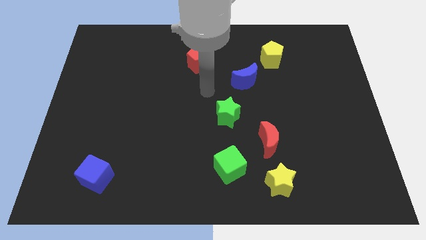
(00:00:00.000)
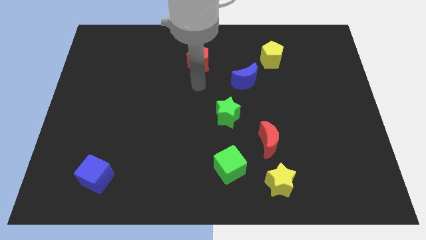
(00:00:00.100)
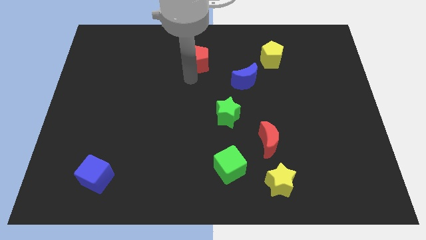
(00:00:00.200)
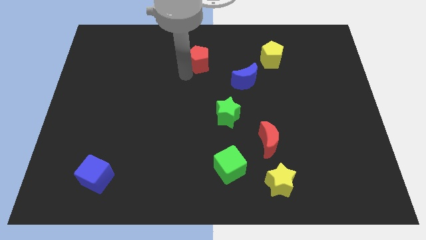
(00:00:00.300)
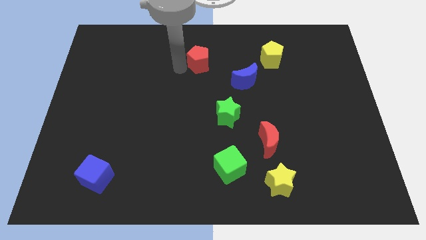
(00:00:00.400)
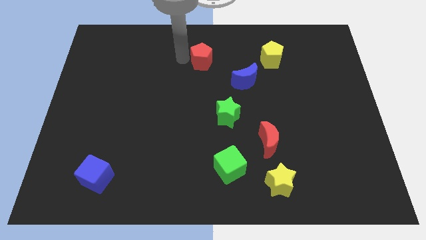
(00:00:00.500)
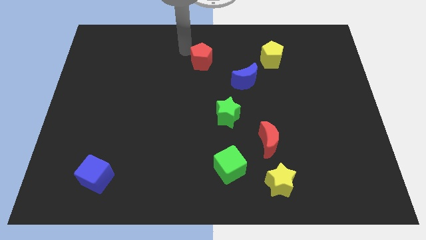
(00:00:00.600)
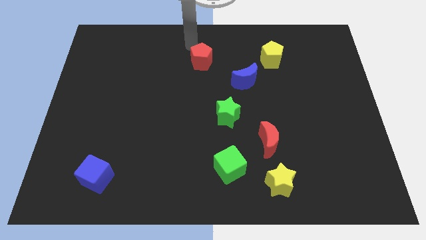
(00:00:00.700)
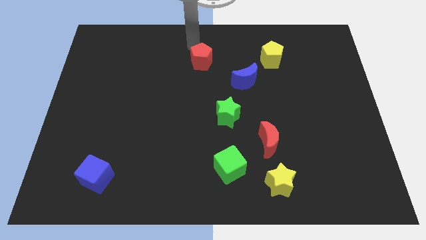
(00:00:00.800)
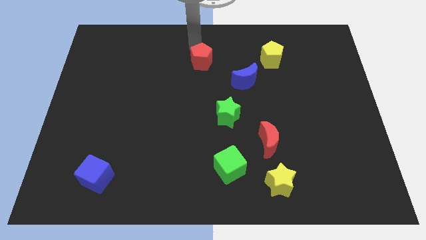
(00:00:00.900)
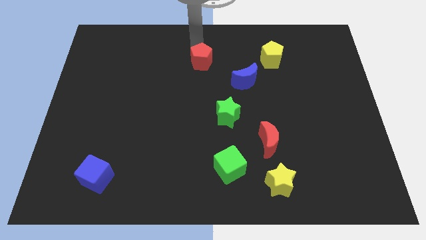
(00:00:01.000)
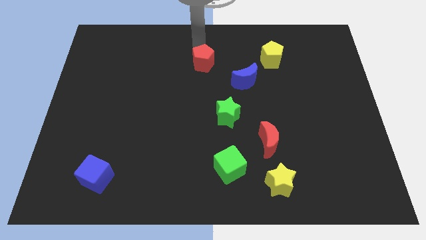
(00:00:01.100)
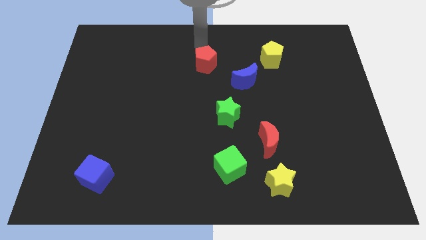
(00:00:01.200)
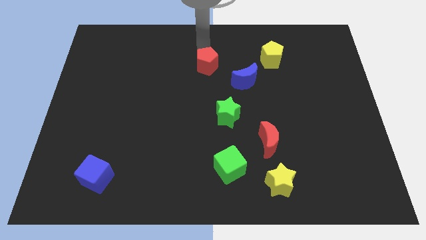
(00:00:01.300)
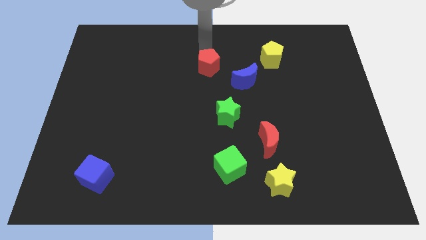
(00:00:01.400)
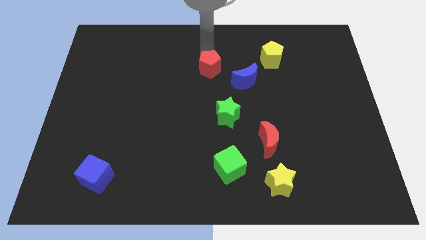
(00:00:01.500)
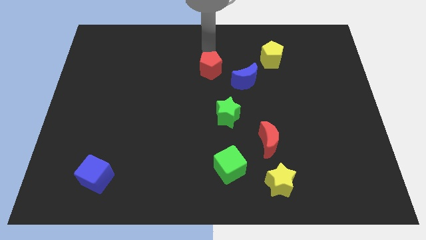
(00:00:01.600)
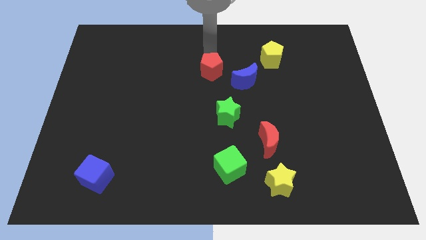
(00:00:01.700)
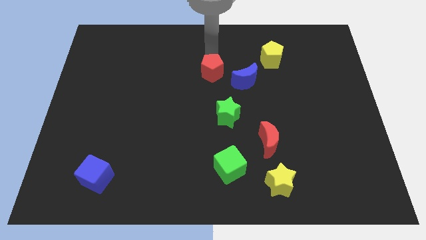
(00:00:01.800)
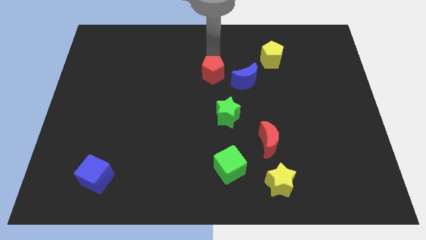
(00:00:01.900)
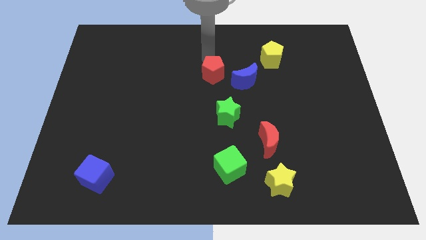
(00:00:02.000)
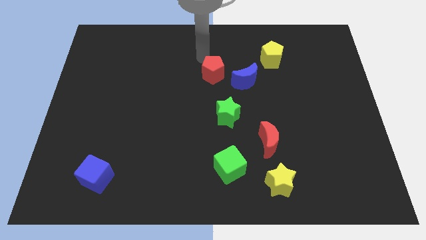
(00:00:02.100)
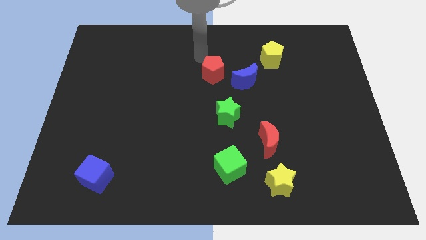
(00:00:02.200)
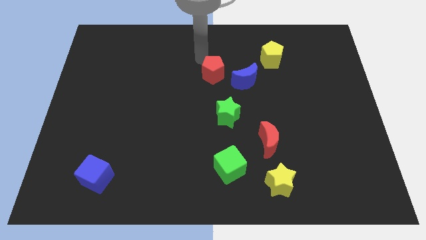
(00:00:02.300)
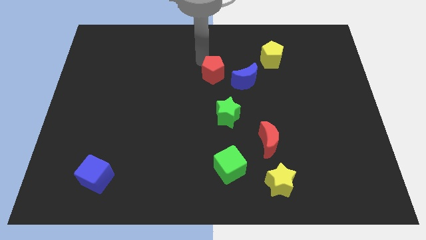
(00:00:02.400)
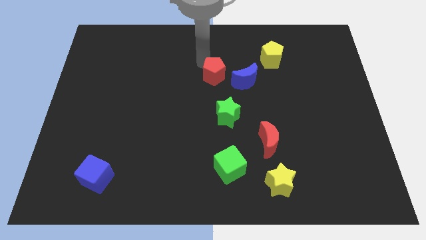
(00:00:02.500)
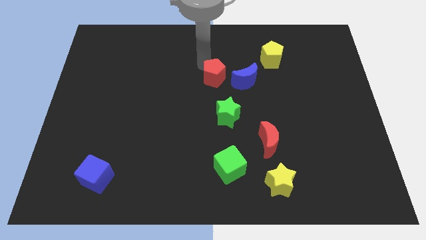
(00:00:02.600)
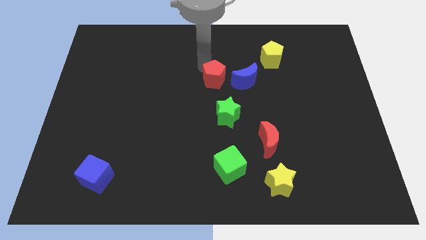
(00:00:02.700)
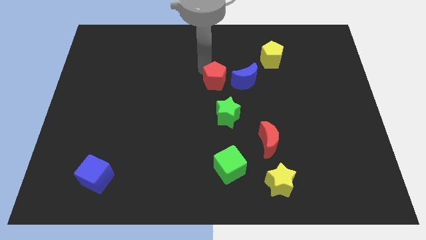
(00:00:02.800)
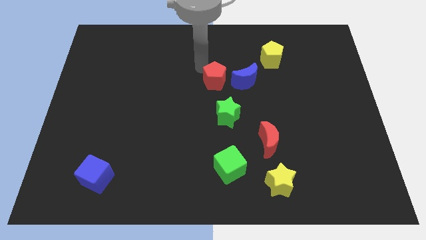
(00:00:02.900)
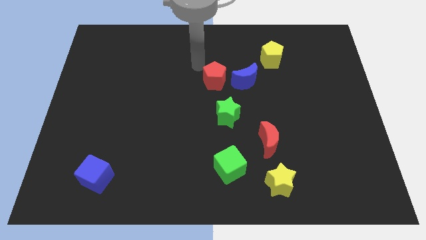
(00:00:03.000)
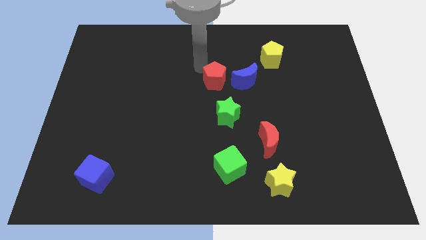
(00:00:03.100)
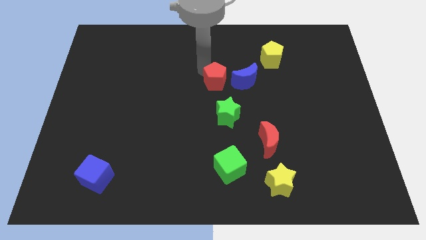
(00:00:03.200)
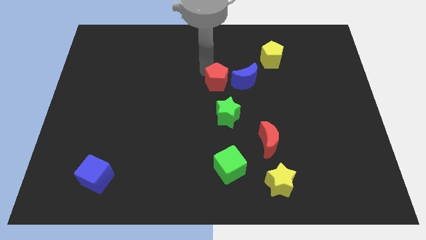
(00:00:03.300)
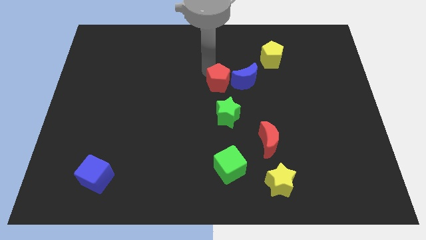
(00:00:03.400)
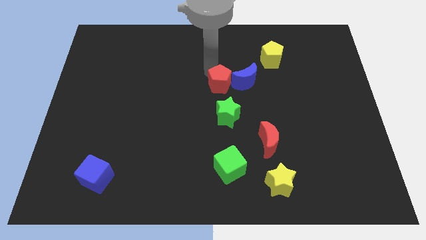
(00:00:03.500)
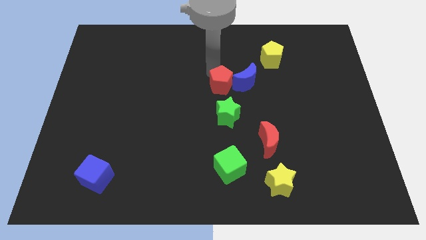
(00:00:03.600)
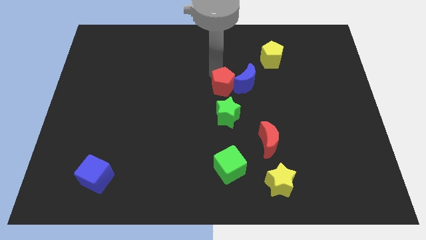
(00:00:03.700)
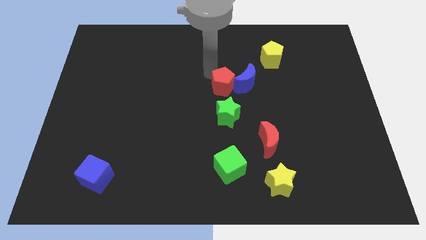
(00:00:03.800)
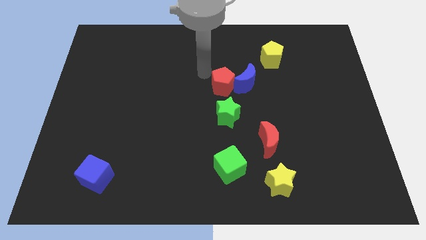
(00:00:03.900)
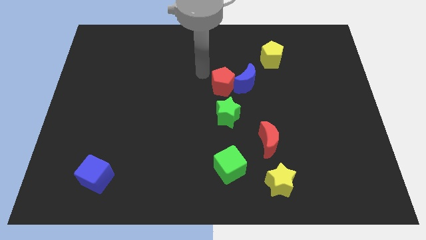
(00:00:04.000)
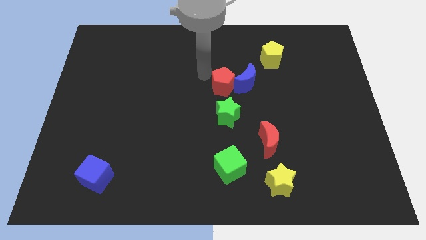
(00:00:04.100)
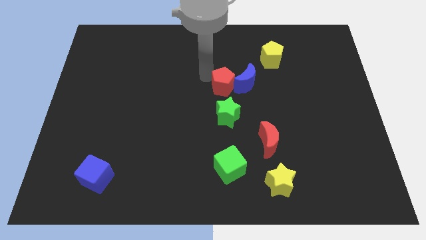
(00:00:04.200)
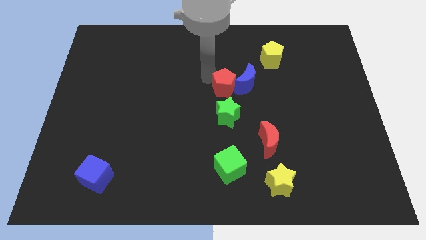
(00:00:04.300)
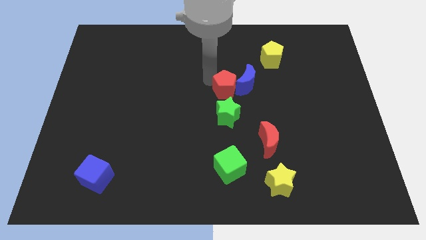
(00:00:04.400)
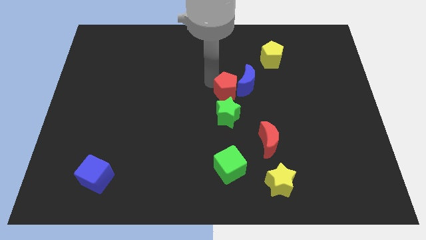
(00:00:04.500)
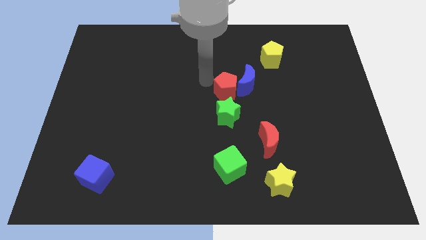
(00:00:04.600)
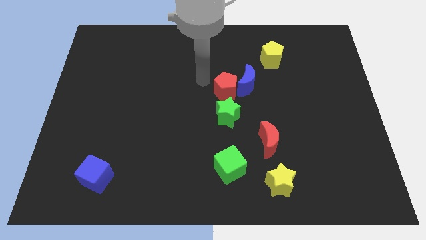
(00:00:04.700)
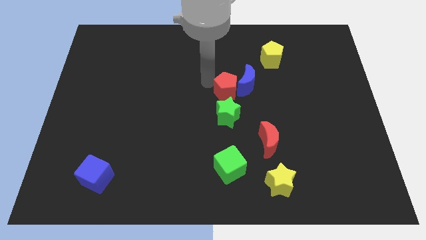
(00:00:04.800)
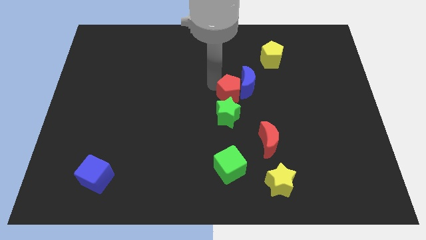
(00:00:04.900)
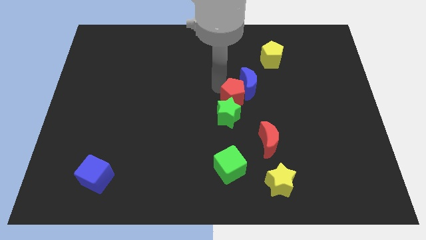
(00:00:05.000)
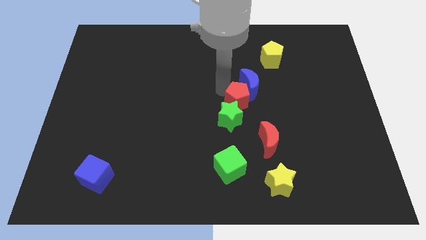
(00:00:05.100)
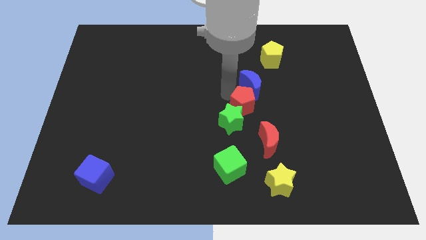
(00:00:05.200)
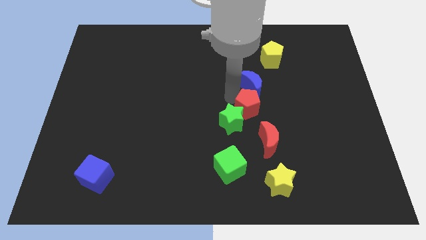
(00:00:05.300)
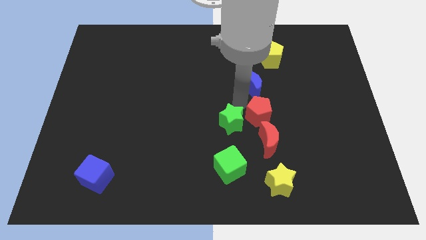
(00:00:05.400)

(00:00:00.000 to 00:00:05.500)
move the red pentagon downwards and right

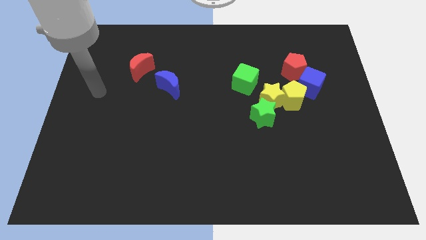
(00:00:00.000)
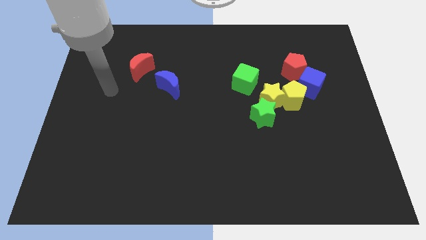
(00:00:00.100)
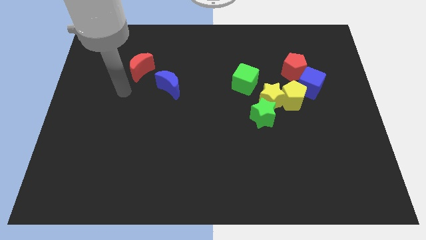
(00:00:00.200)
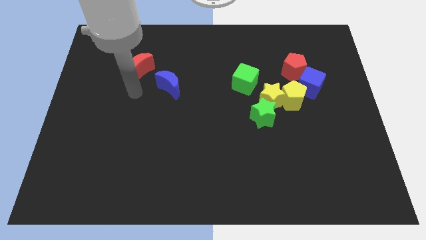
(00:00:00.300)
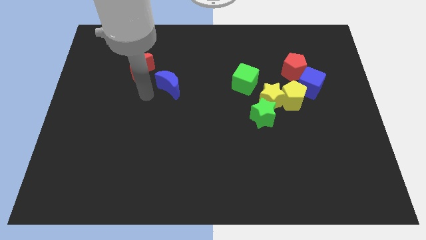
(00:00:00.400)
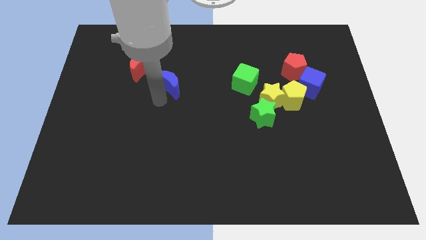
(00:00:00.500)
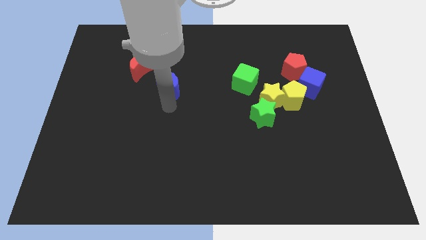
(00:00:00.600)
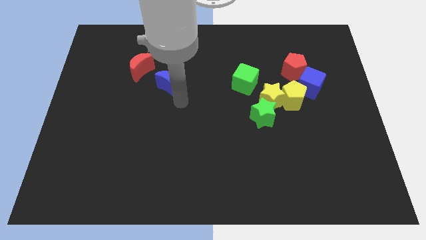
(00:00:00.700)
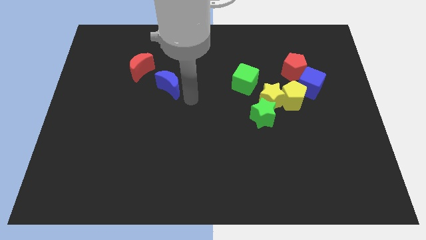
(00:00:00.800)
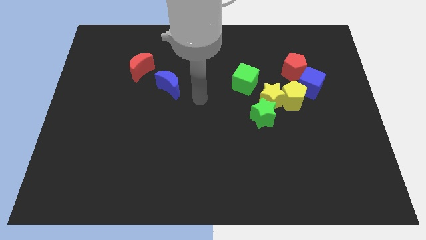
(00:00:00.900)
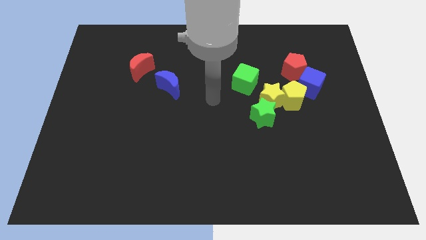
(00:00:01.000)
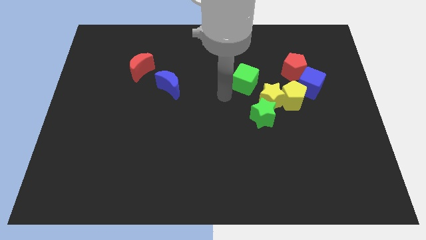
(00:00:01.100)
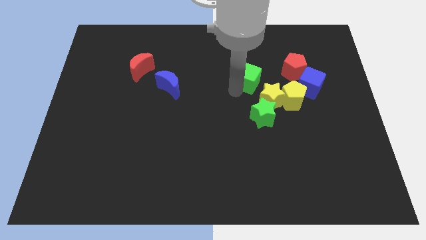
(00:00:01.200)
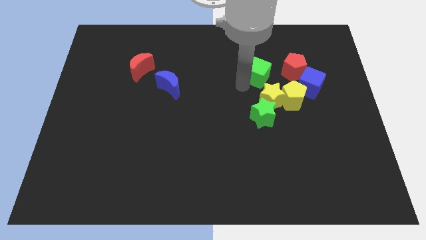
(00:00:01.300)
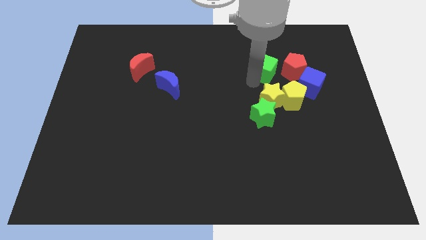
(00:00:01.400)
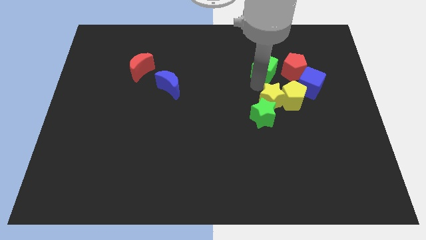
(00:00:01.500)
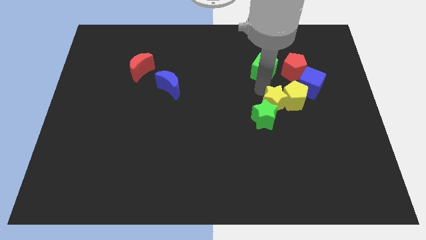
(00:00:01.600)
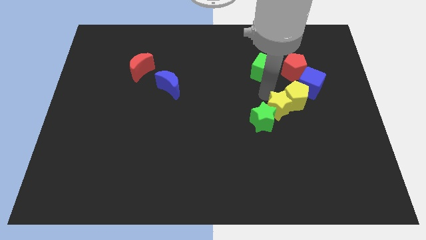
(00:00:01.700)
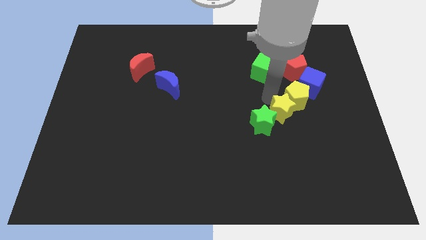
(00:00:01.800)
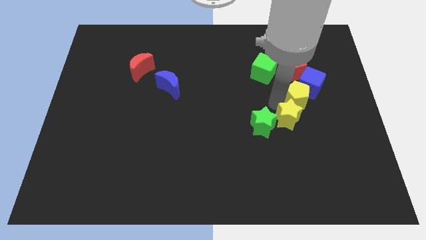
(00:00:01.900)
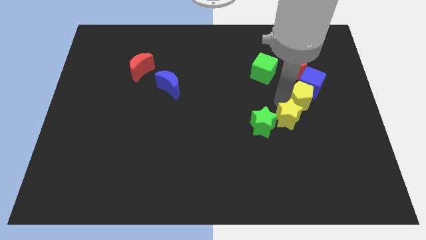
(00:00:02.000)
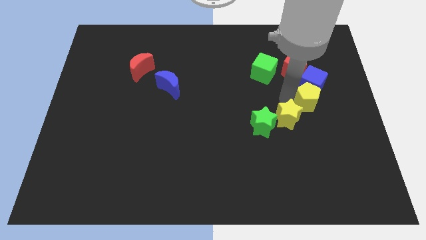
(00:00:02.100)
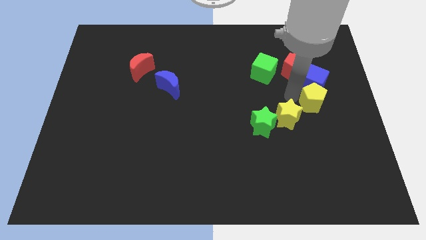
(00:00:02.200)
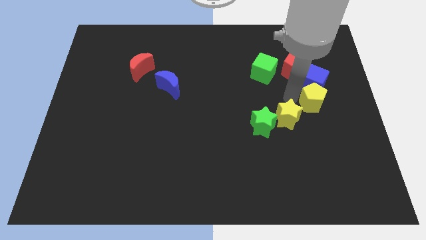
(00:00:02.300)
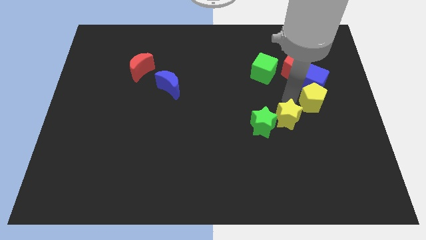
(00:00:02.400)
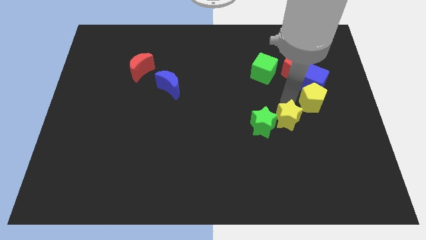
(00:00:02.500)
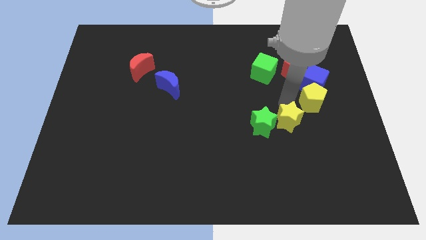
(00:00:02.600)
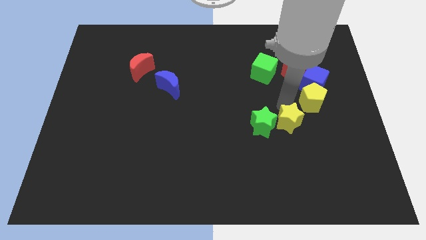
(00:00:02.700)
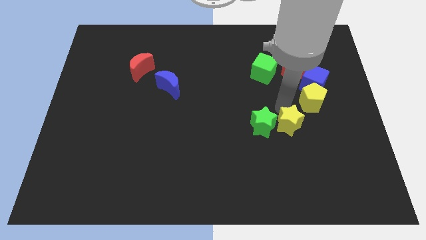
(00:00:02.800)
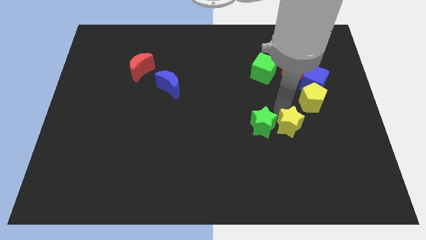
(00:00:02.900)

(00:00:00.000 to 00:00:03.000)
slightly push the yellow star downwards
